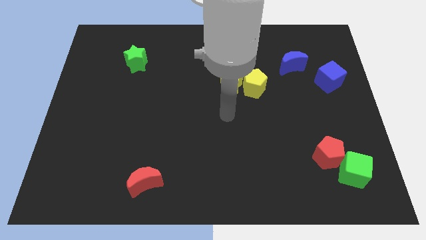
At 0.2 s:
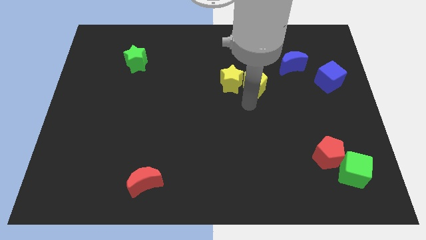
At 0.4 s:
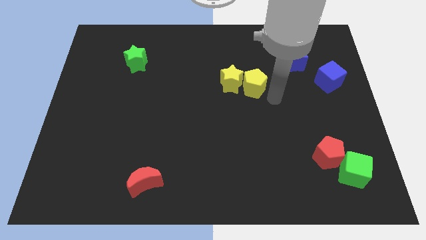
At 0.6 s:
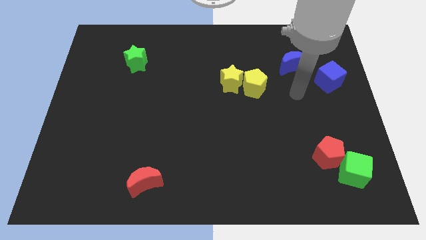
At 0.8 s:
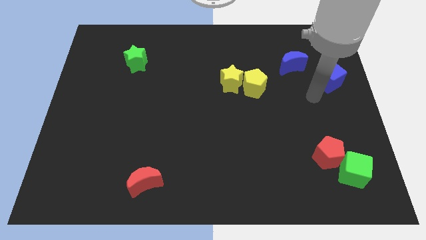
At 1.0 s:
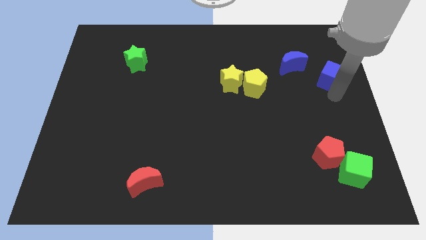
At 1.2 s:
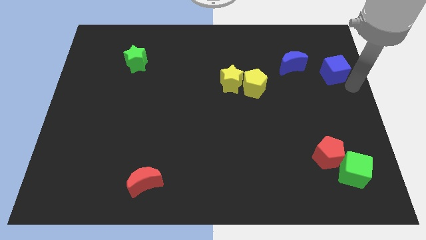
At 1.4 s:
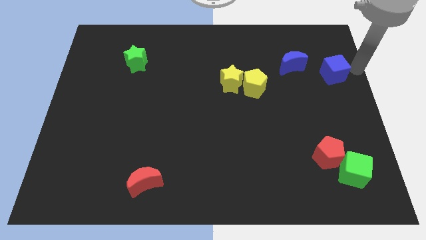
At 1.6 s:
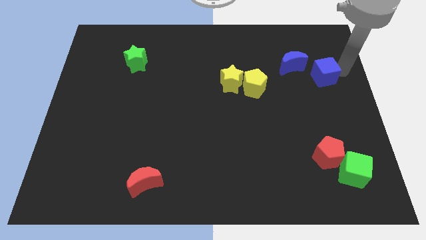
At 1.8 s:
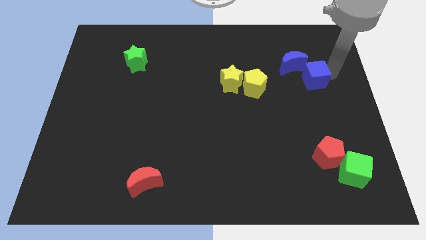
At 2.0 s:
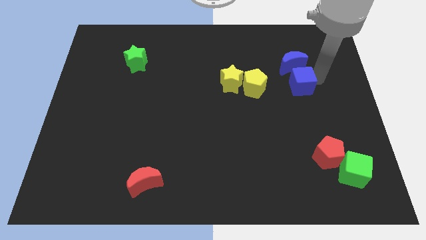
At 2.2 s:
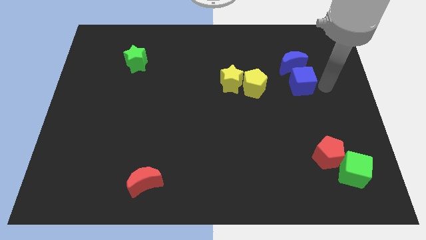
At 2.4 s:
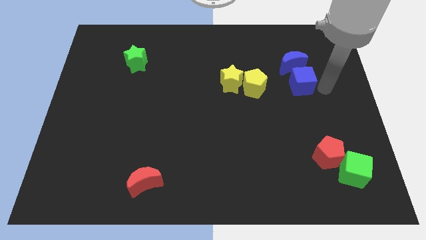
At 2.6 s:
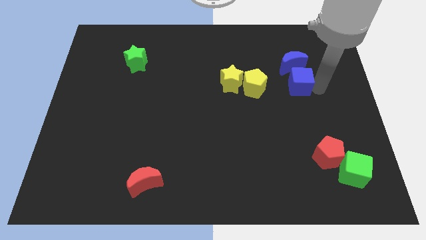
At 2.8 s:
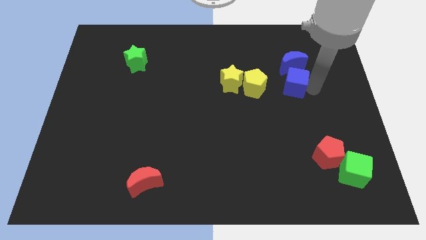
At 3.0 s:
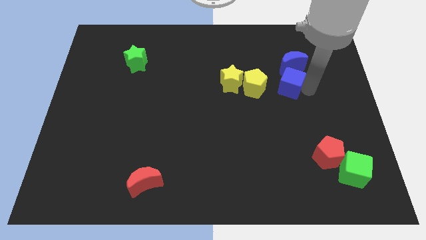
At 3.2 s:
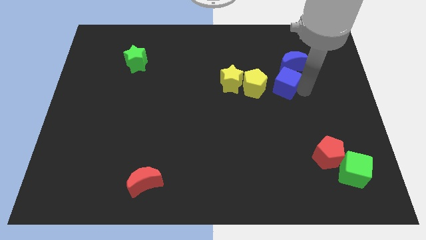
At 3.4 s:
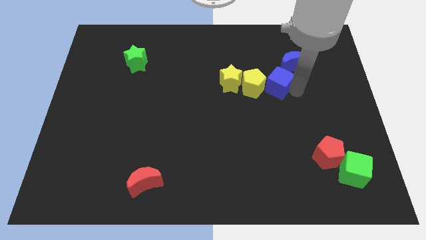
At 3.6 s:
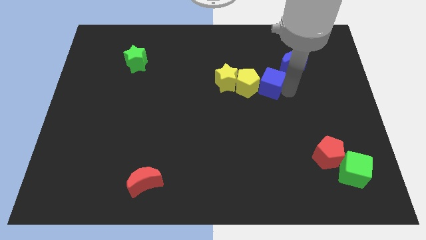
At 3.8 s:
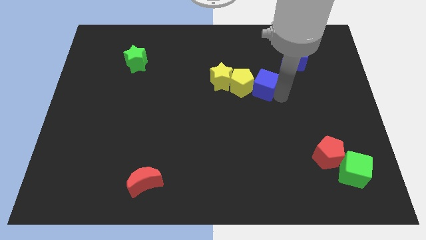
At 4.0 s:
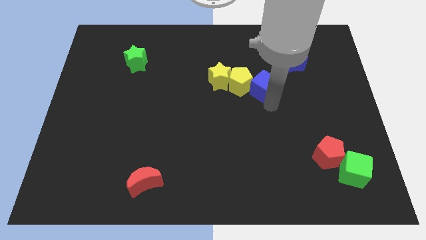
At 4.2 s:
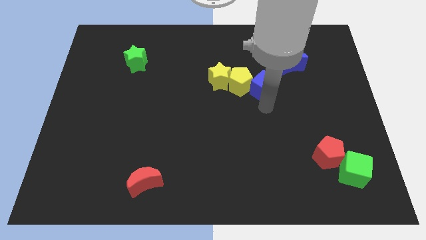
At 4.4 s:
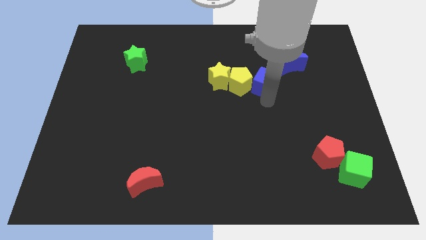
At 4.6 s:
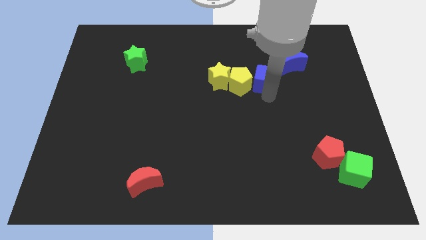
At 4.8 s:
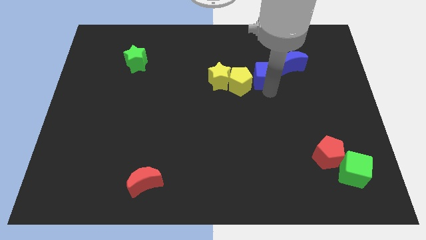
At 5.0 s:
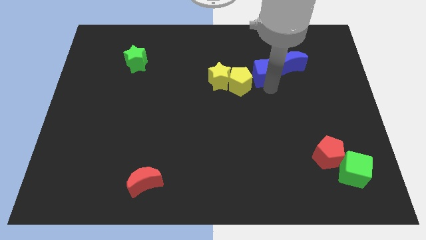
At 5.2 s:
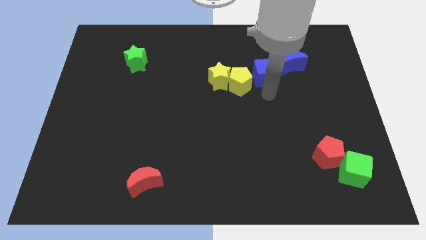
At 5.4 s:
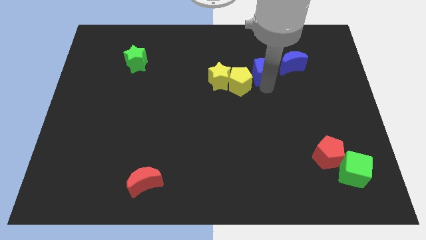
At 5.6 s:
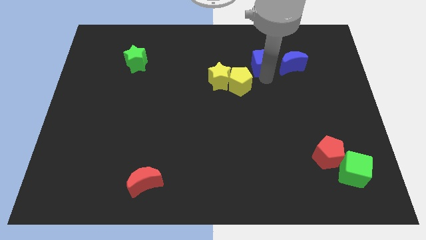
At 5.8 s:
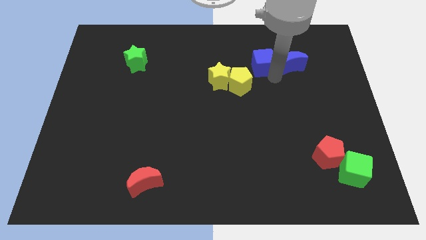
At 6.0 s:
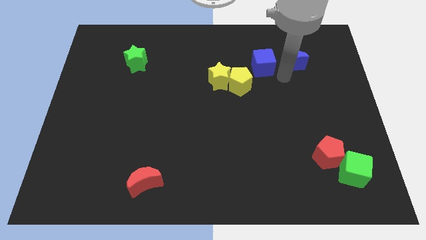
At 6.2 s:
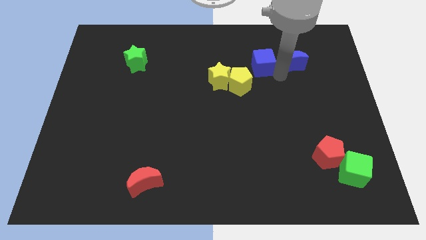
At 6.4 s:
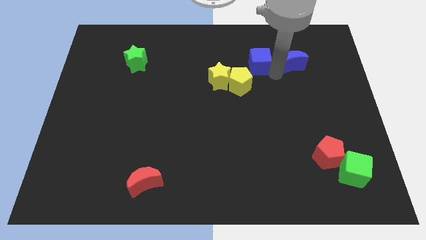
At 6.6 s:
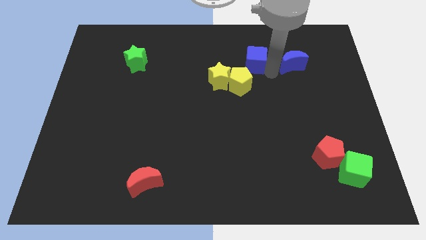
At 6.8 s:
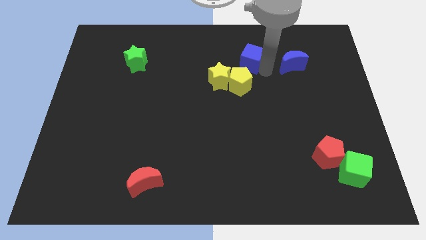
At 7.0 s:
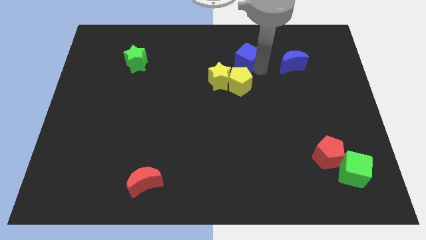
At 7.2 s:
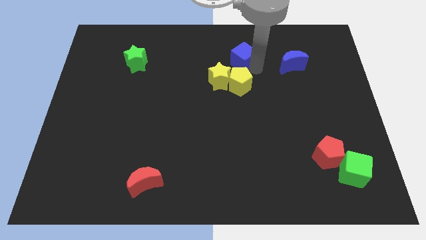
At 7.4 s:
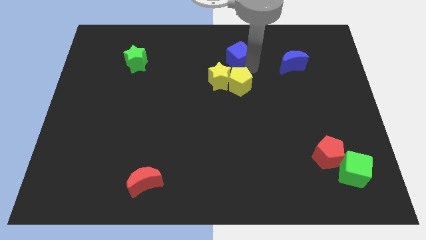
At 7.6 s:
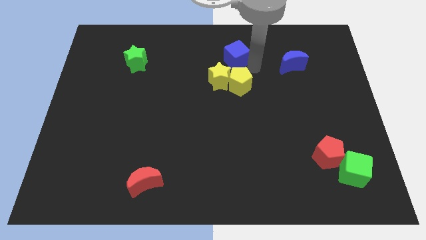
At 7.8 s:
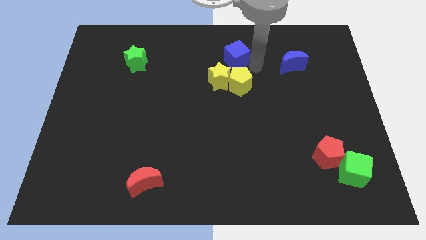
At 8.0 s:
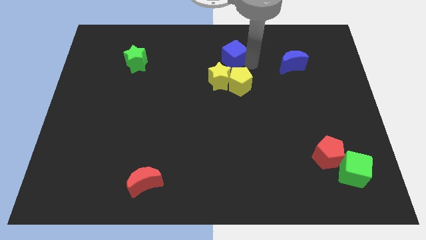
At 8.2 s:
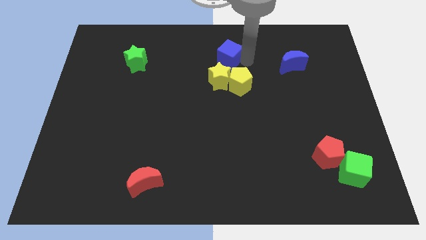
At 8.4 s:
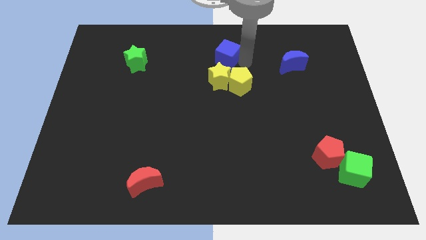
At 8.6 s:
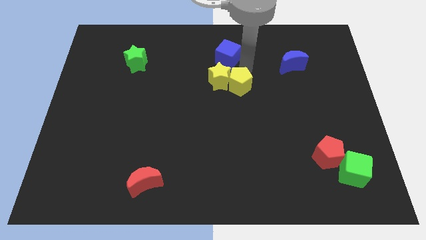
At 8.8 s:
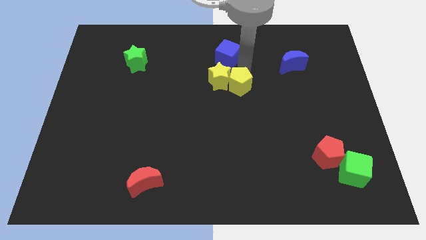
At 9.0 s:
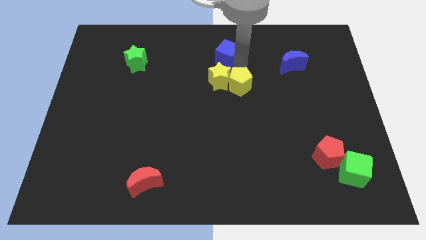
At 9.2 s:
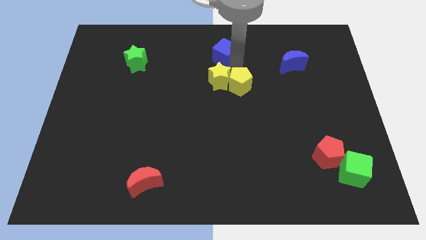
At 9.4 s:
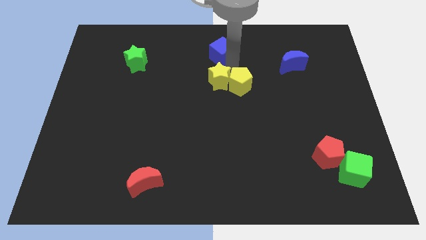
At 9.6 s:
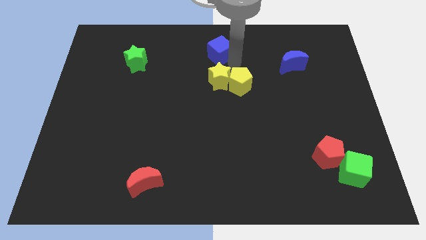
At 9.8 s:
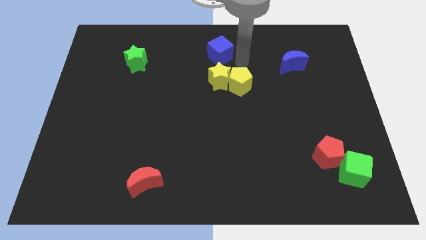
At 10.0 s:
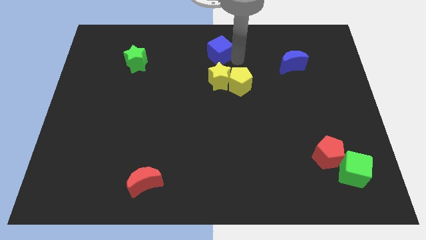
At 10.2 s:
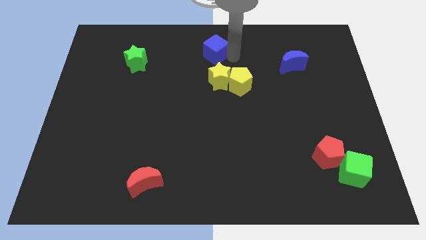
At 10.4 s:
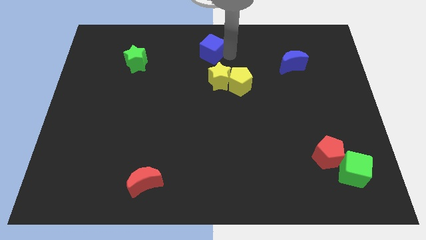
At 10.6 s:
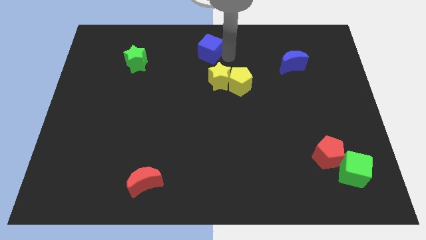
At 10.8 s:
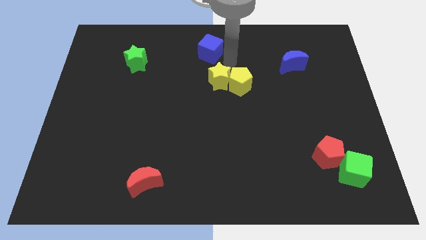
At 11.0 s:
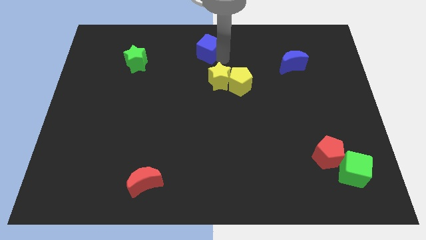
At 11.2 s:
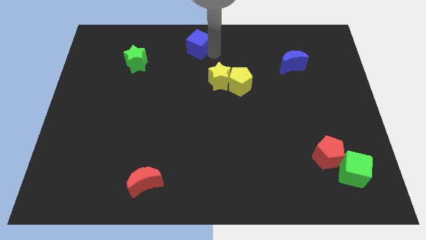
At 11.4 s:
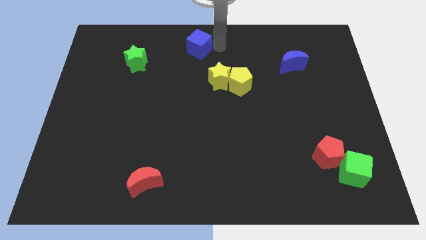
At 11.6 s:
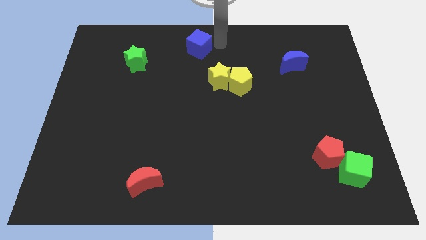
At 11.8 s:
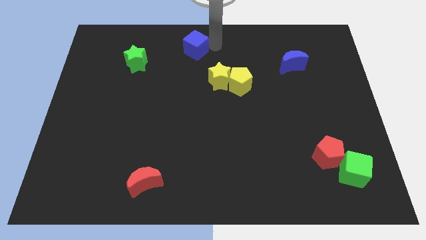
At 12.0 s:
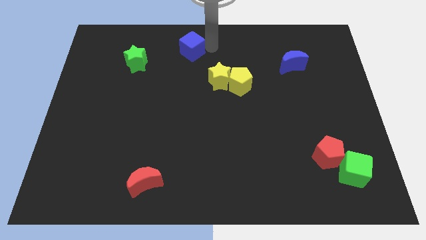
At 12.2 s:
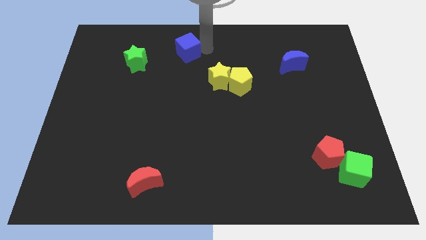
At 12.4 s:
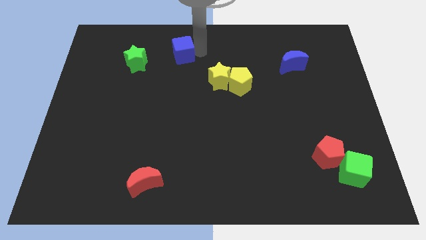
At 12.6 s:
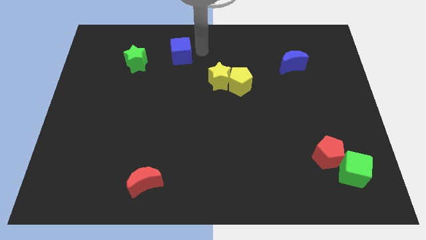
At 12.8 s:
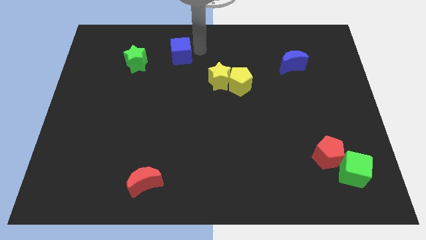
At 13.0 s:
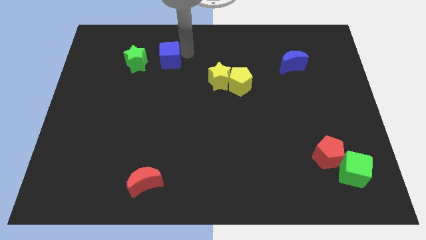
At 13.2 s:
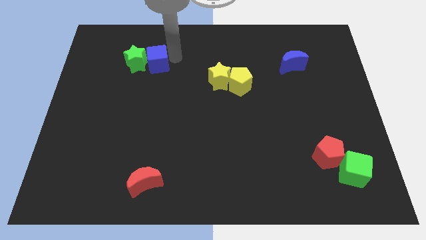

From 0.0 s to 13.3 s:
move the blue cube towards the green star

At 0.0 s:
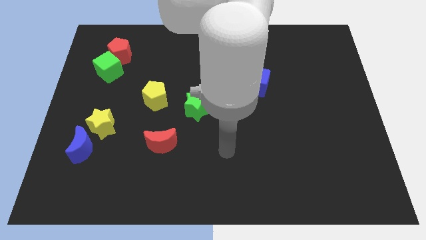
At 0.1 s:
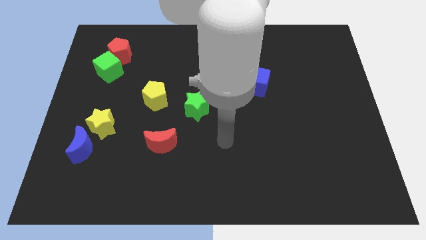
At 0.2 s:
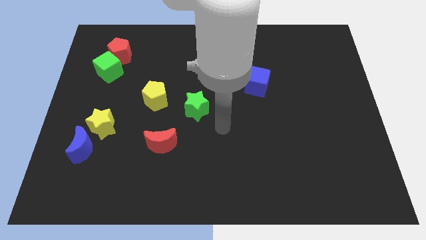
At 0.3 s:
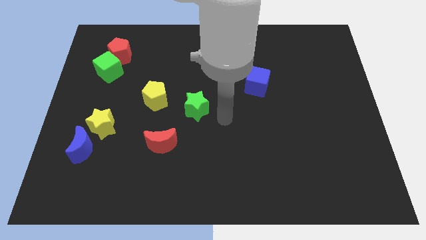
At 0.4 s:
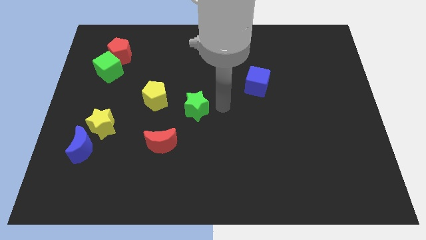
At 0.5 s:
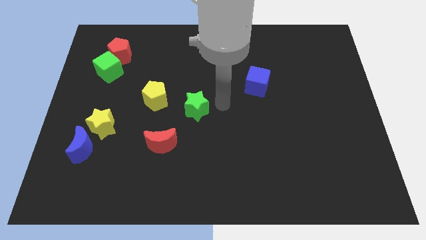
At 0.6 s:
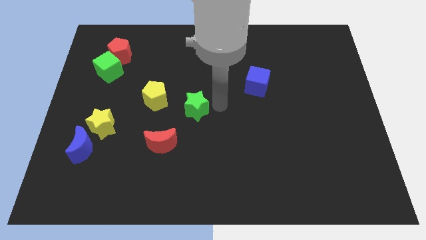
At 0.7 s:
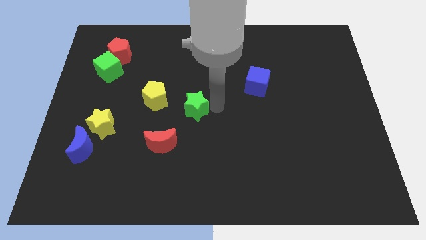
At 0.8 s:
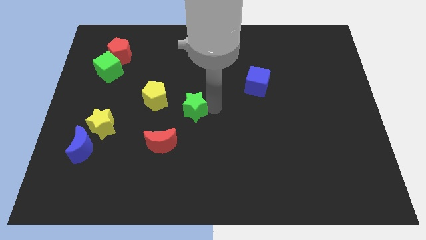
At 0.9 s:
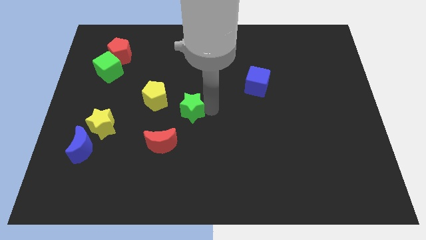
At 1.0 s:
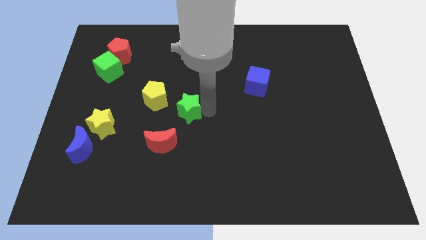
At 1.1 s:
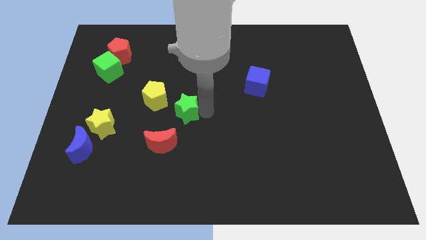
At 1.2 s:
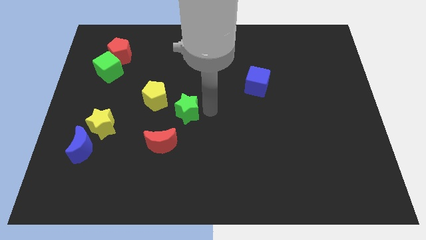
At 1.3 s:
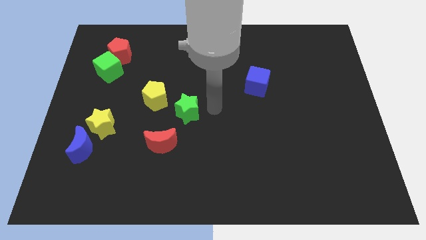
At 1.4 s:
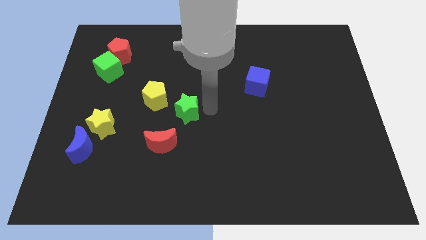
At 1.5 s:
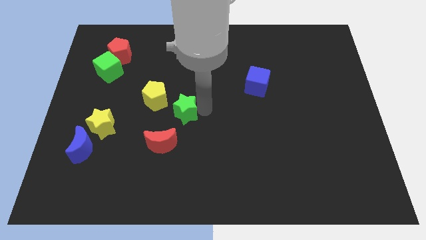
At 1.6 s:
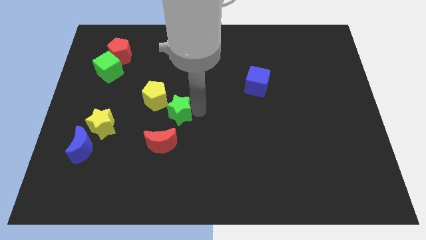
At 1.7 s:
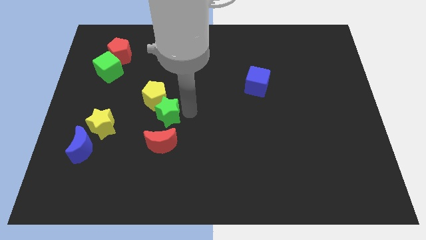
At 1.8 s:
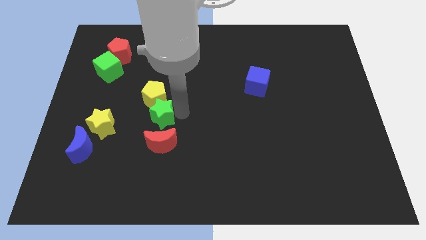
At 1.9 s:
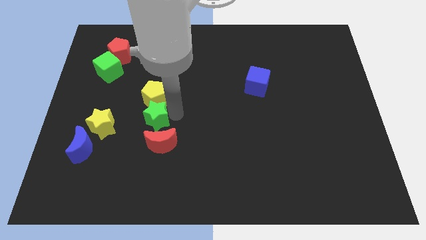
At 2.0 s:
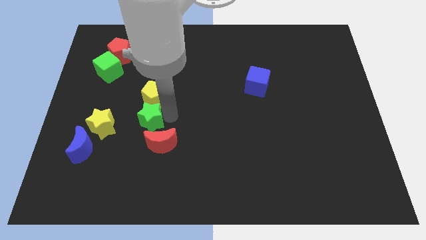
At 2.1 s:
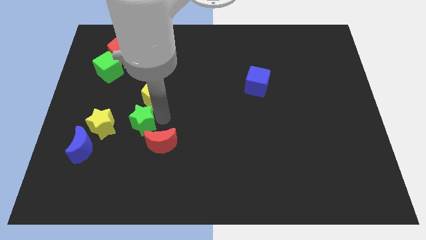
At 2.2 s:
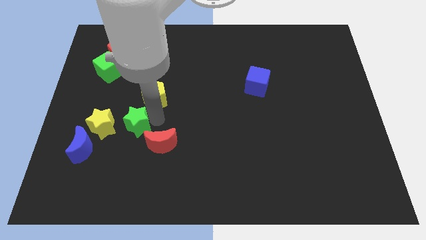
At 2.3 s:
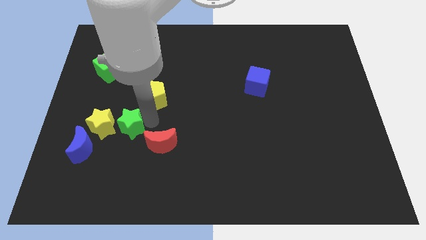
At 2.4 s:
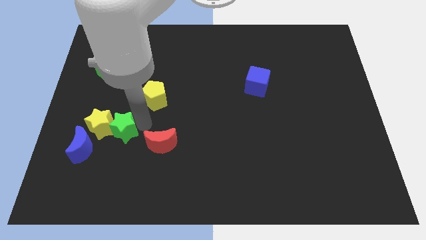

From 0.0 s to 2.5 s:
slide the green star close to the yellow star
